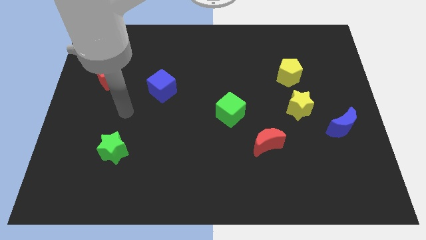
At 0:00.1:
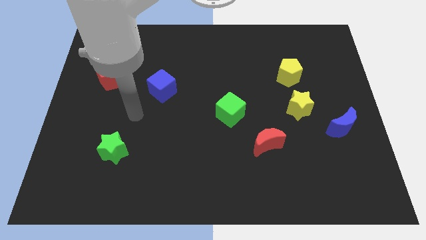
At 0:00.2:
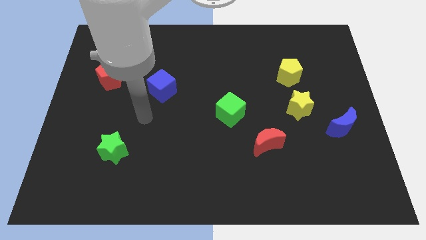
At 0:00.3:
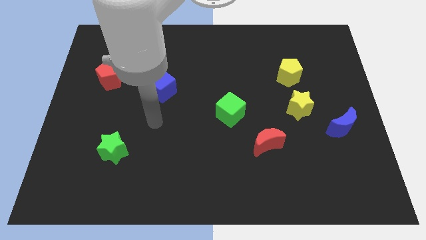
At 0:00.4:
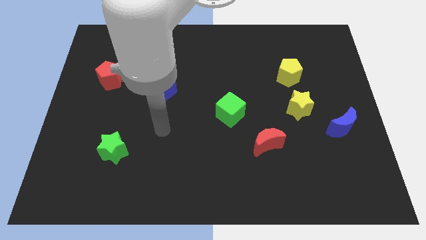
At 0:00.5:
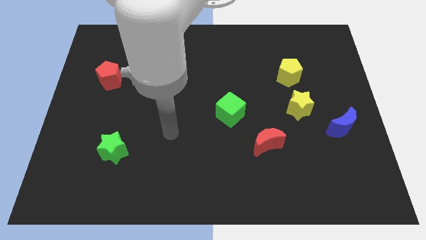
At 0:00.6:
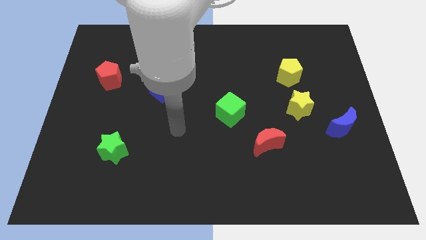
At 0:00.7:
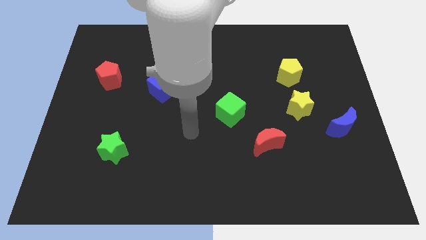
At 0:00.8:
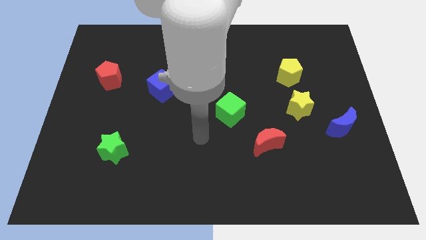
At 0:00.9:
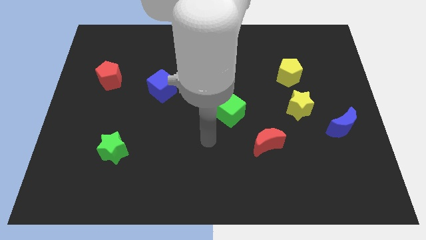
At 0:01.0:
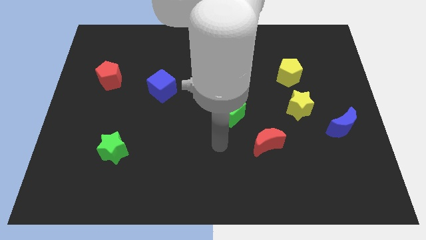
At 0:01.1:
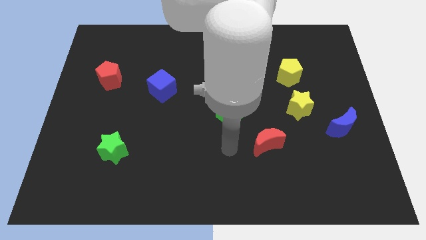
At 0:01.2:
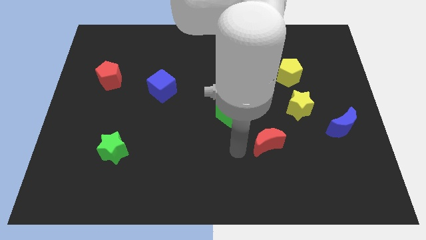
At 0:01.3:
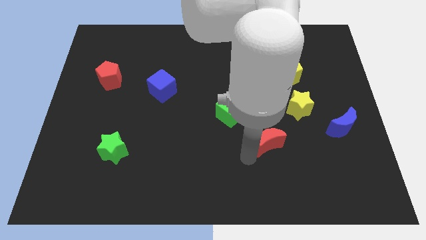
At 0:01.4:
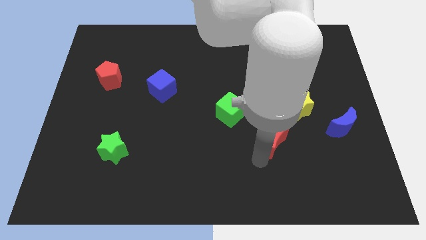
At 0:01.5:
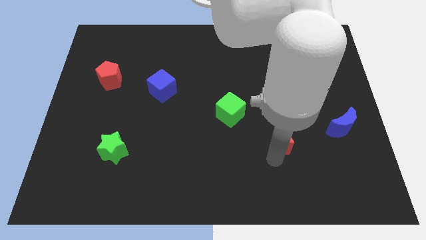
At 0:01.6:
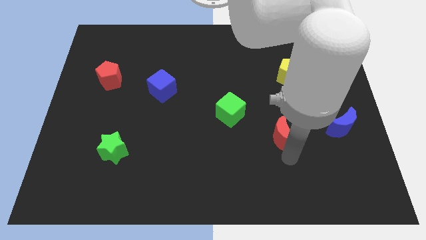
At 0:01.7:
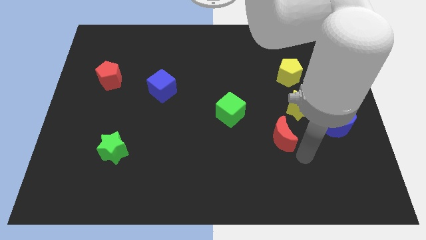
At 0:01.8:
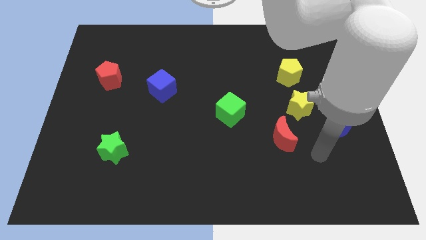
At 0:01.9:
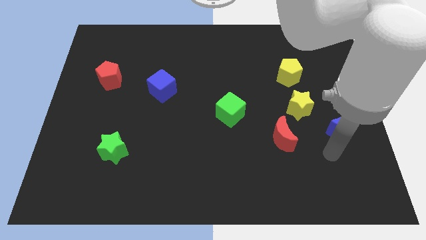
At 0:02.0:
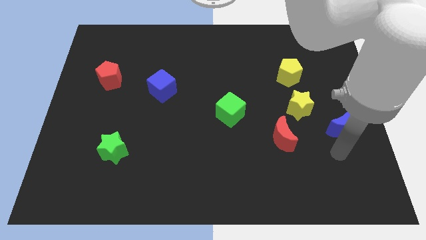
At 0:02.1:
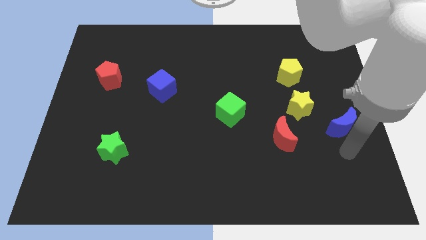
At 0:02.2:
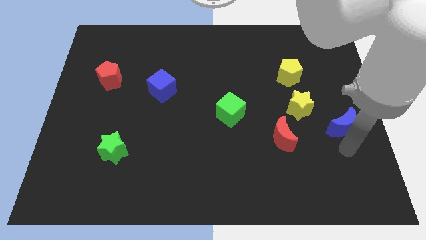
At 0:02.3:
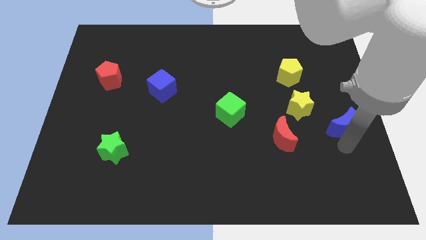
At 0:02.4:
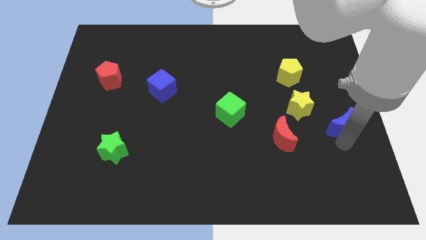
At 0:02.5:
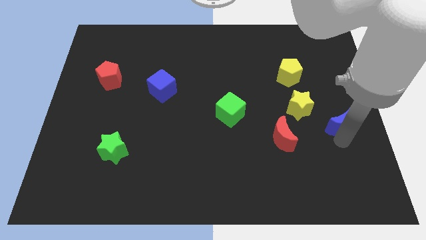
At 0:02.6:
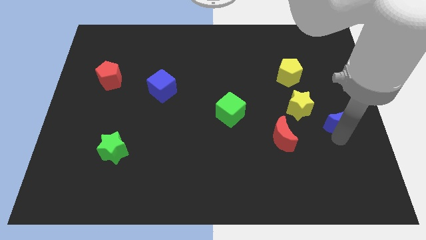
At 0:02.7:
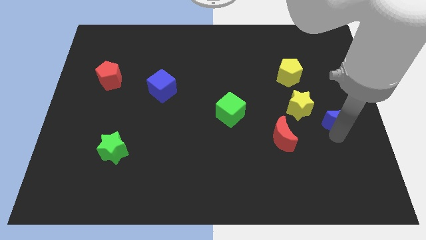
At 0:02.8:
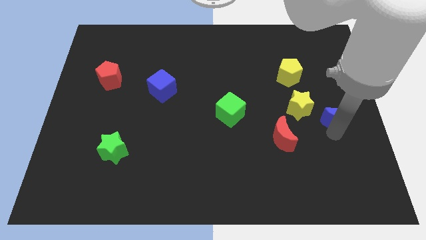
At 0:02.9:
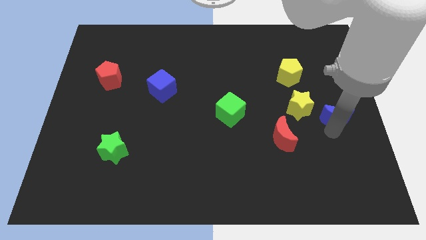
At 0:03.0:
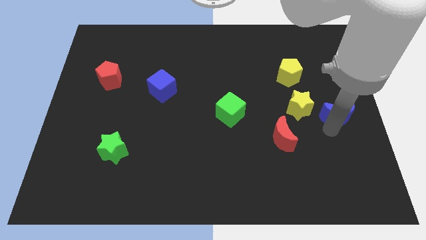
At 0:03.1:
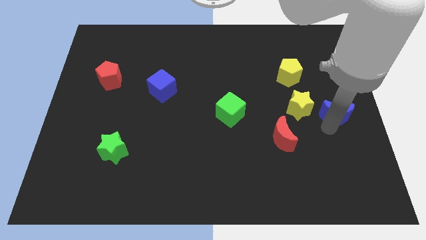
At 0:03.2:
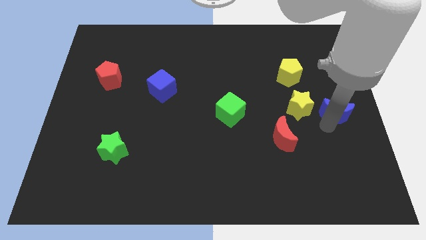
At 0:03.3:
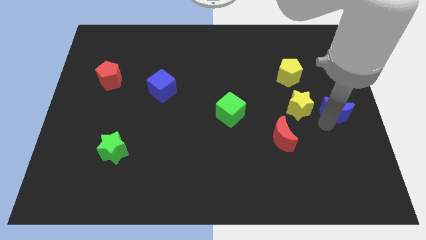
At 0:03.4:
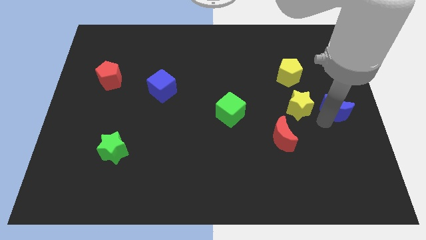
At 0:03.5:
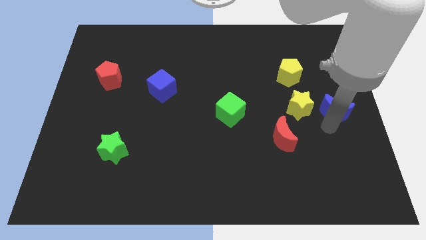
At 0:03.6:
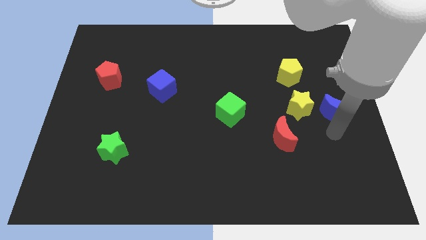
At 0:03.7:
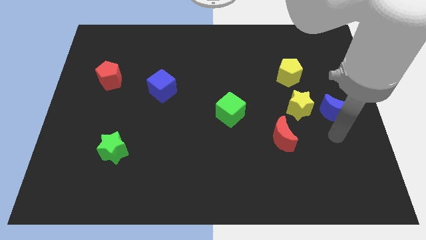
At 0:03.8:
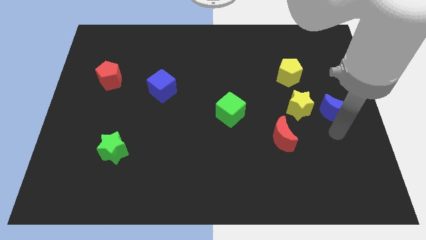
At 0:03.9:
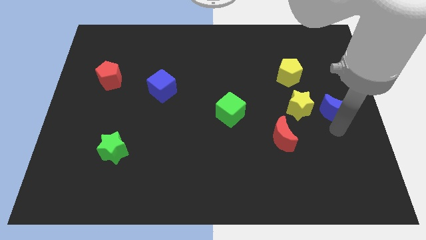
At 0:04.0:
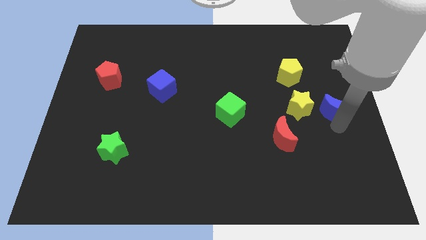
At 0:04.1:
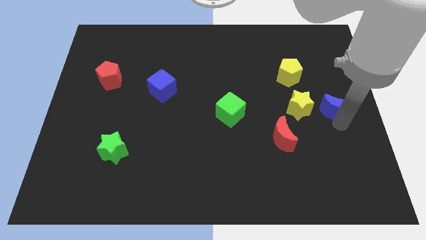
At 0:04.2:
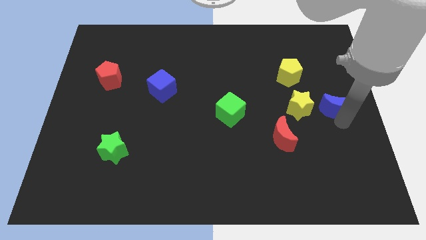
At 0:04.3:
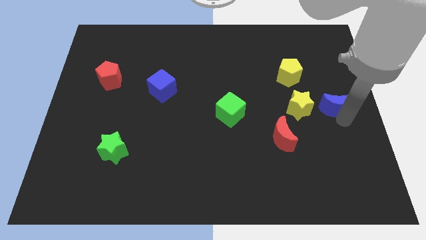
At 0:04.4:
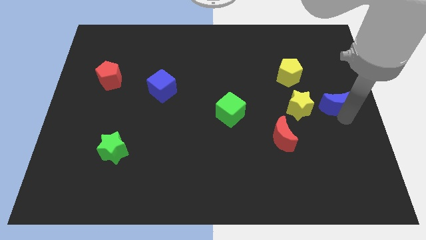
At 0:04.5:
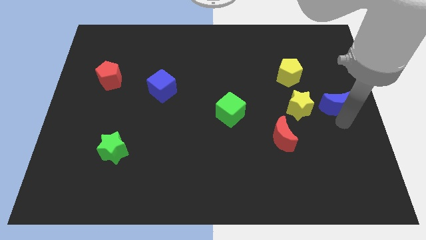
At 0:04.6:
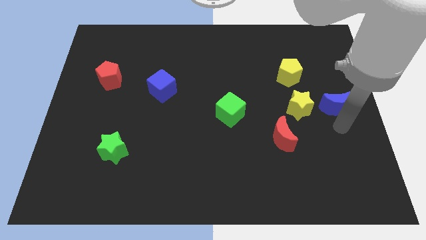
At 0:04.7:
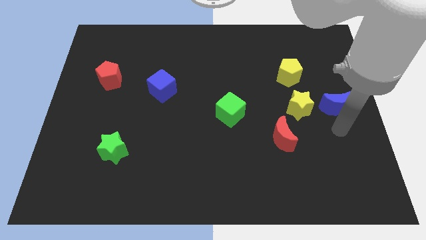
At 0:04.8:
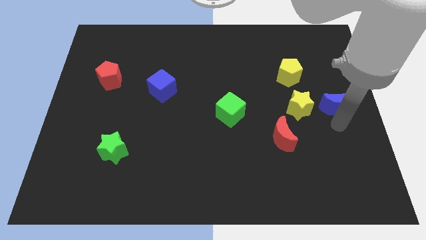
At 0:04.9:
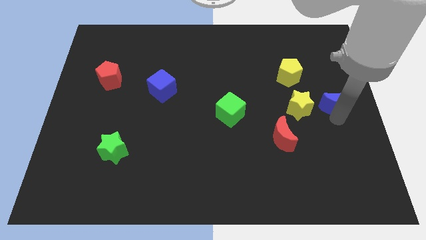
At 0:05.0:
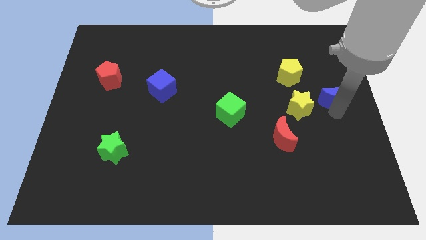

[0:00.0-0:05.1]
slide the blue moon slightly up

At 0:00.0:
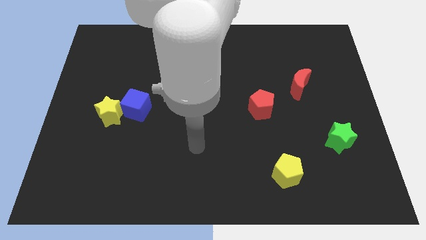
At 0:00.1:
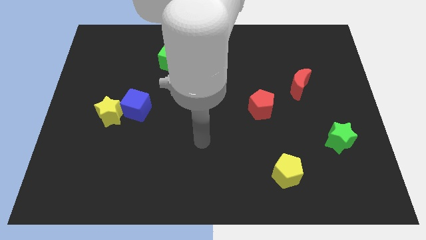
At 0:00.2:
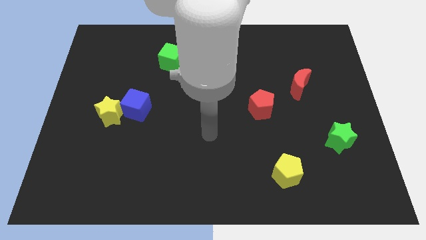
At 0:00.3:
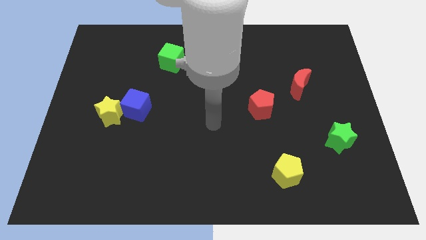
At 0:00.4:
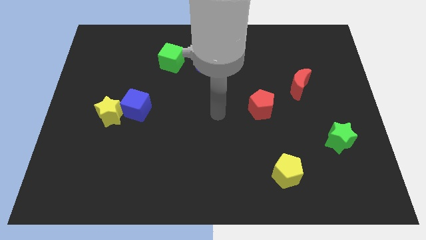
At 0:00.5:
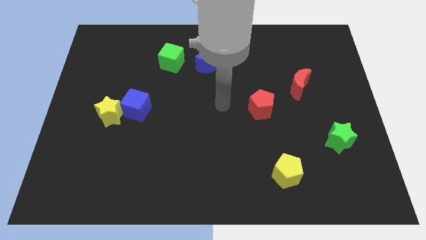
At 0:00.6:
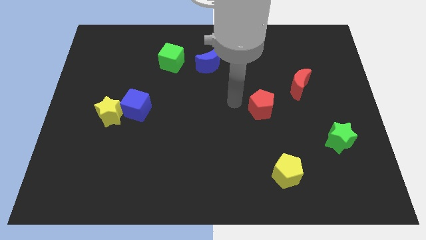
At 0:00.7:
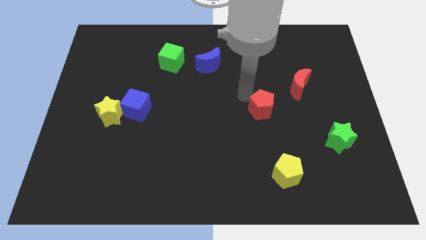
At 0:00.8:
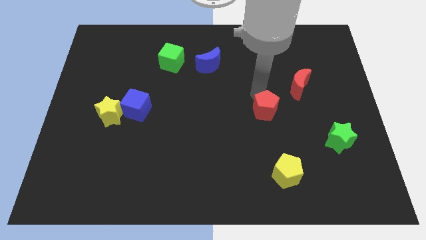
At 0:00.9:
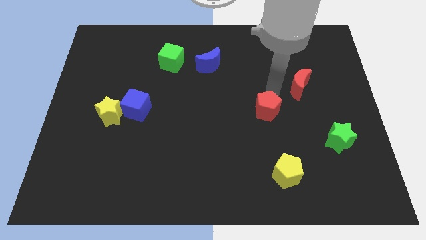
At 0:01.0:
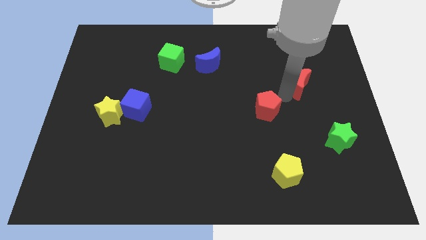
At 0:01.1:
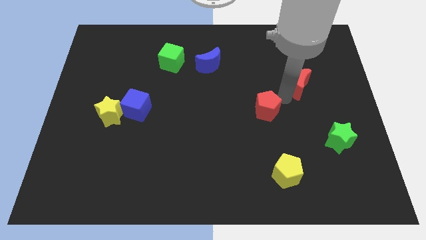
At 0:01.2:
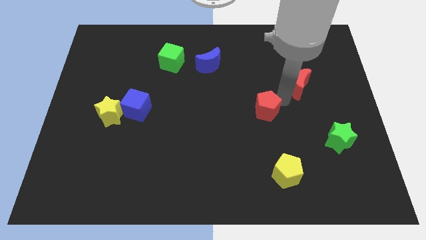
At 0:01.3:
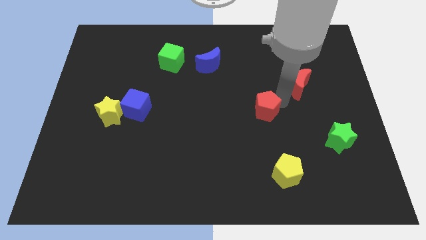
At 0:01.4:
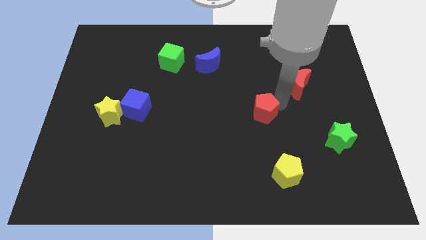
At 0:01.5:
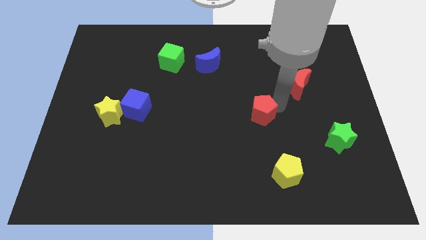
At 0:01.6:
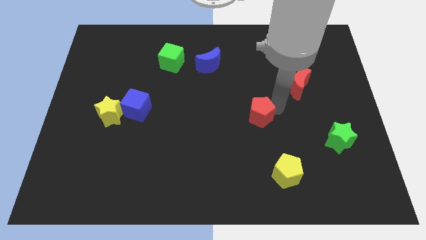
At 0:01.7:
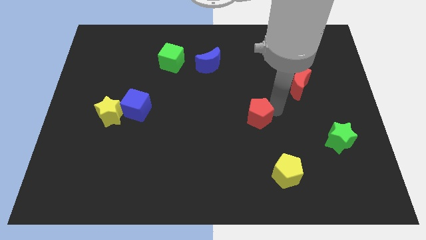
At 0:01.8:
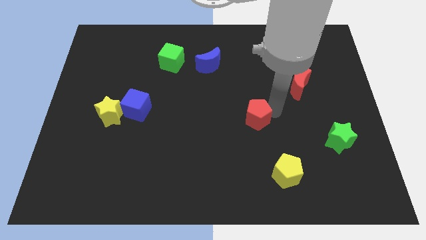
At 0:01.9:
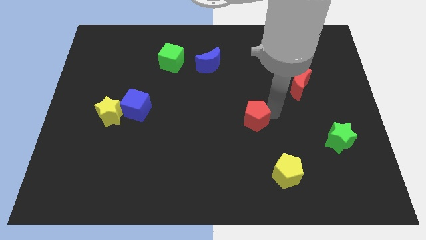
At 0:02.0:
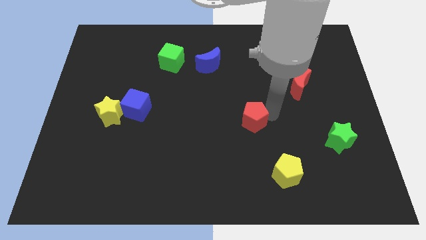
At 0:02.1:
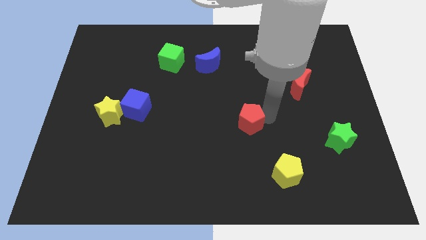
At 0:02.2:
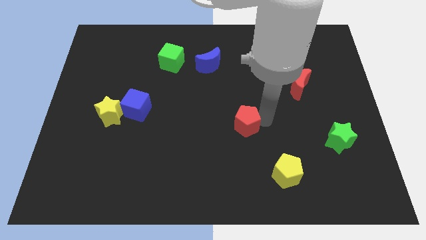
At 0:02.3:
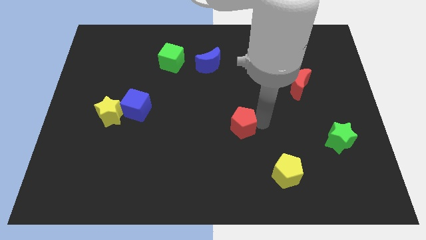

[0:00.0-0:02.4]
slide the red pentagon downwards and then to the left a little bit

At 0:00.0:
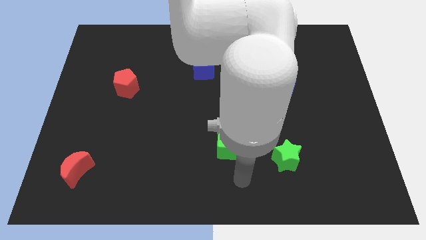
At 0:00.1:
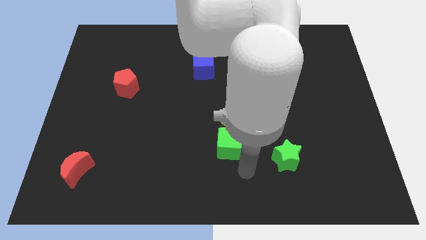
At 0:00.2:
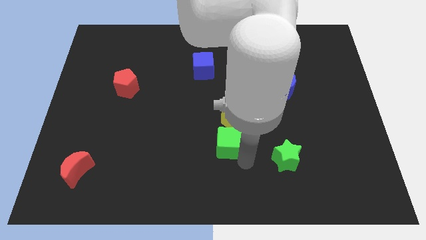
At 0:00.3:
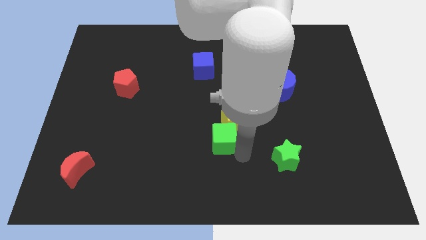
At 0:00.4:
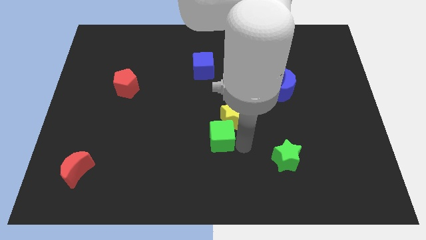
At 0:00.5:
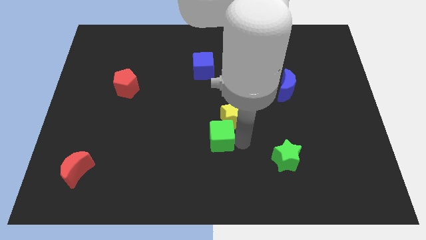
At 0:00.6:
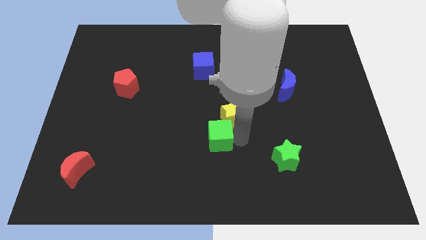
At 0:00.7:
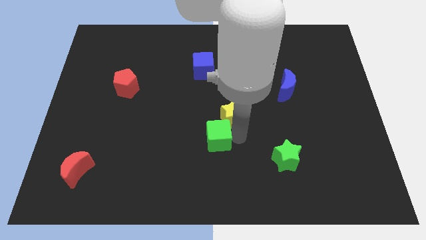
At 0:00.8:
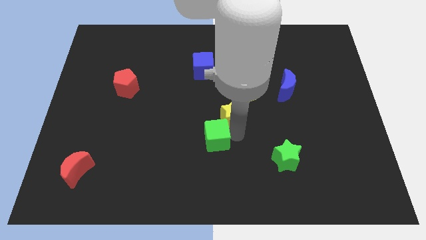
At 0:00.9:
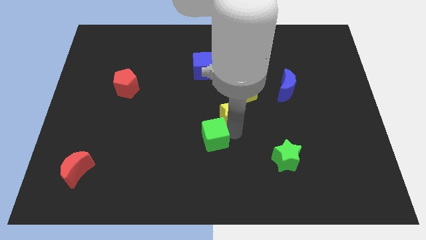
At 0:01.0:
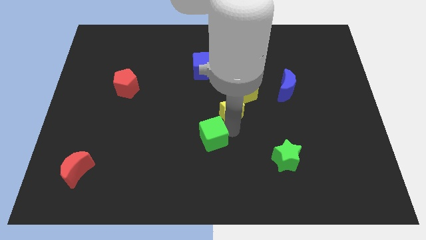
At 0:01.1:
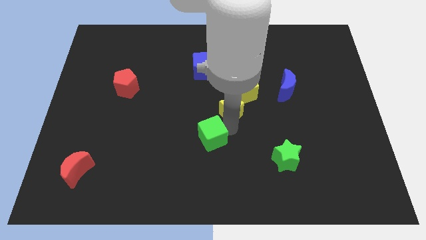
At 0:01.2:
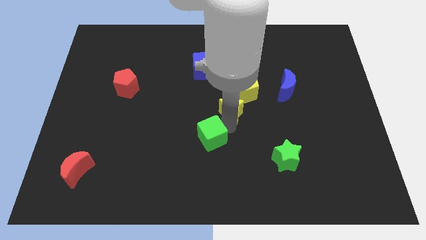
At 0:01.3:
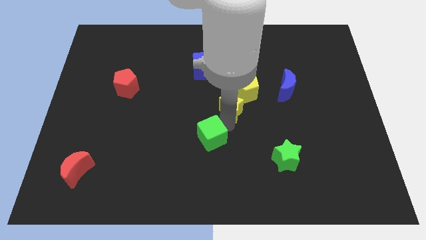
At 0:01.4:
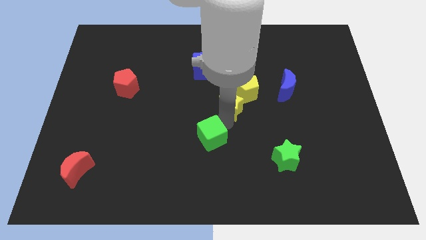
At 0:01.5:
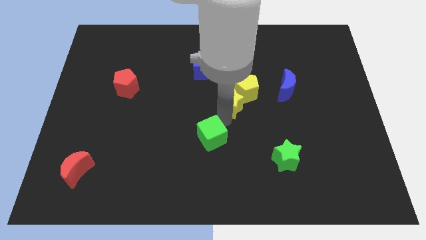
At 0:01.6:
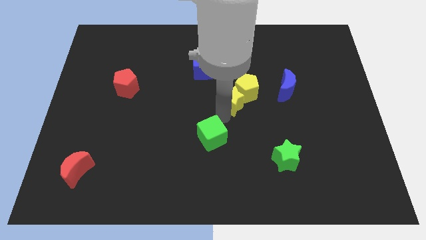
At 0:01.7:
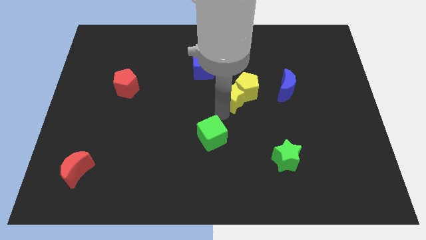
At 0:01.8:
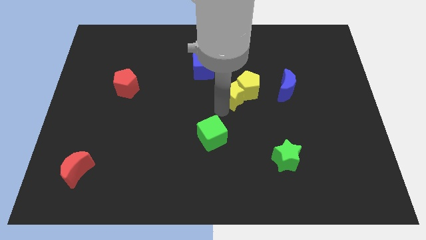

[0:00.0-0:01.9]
slide the yellow star a bit up
